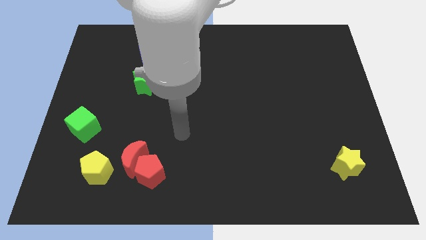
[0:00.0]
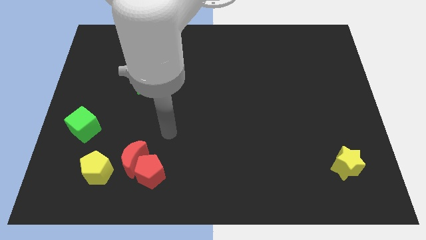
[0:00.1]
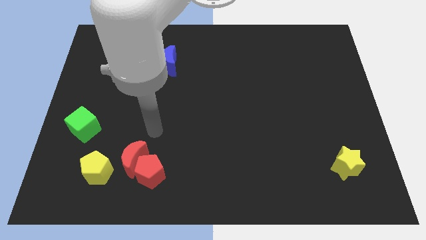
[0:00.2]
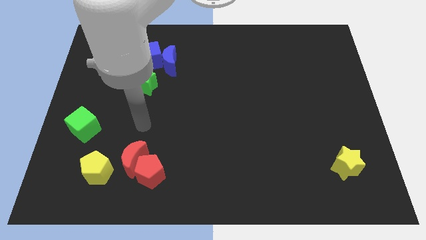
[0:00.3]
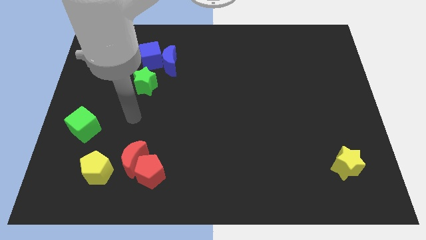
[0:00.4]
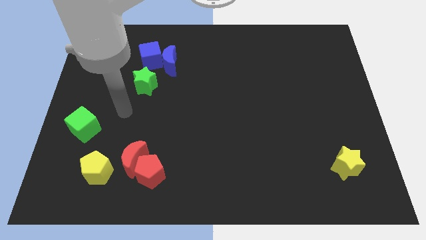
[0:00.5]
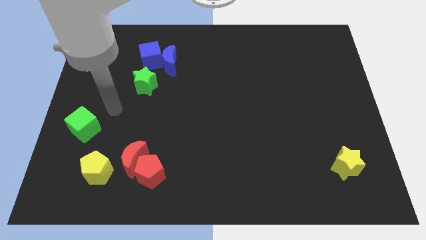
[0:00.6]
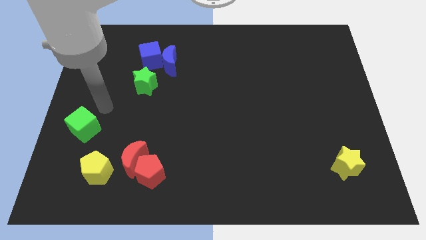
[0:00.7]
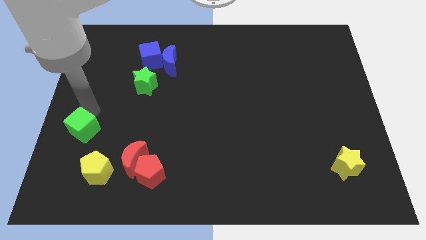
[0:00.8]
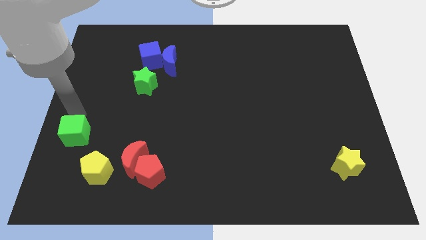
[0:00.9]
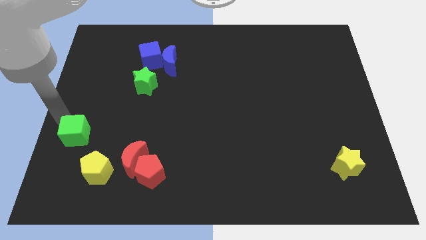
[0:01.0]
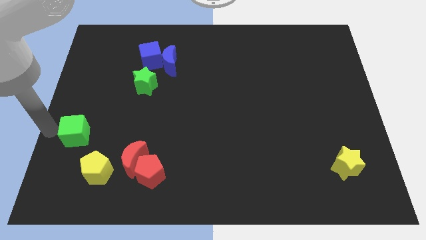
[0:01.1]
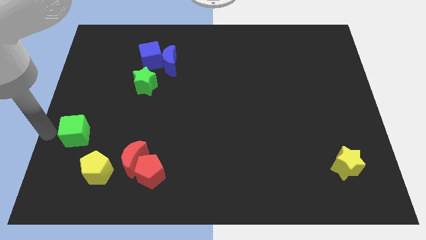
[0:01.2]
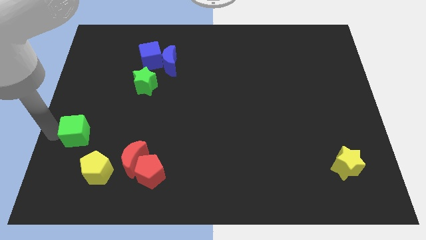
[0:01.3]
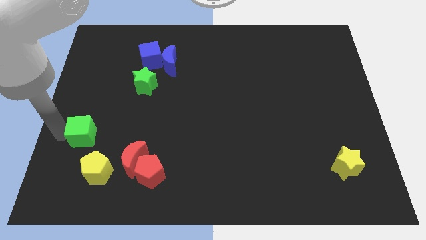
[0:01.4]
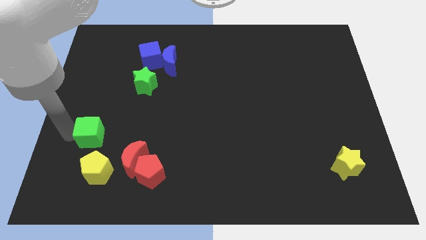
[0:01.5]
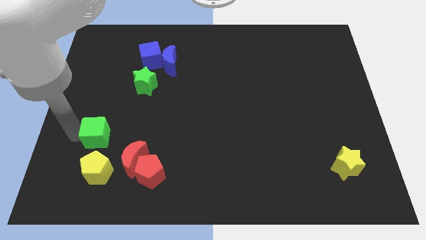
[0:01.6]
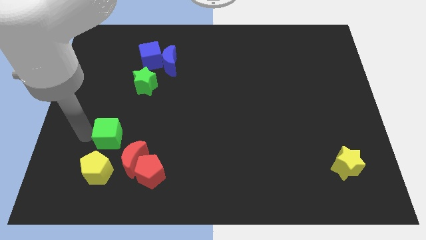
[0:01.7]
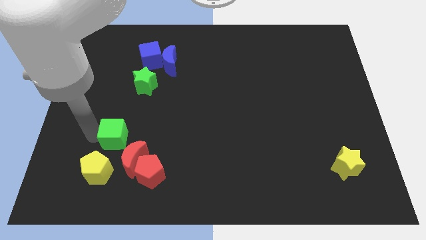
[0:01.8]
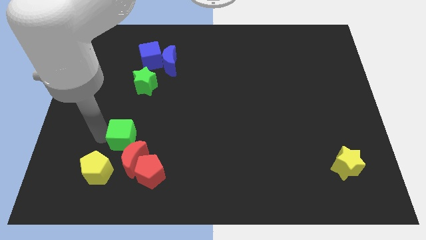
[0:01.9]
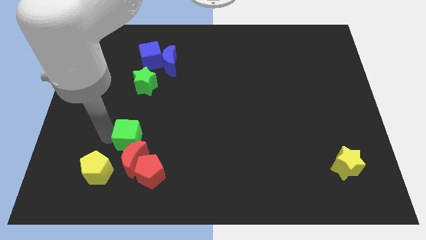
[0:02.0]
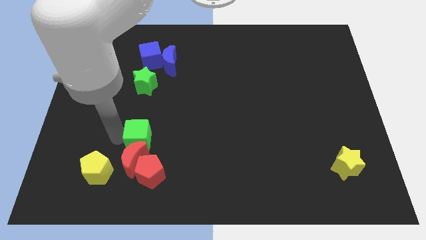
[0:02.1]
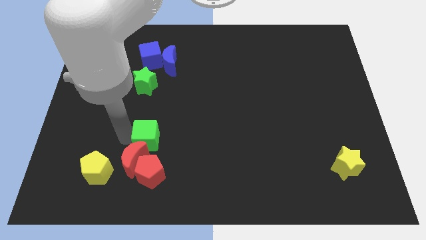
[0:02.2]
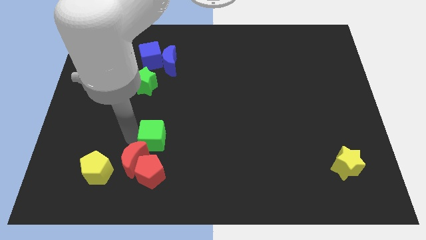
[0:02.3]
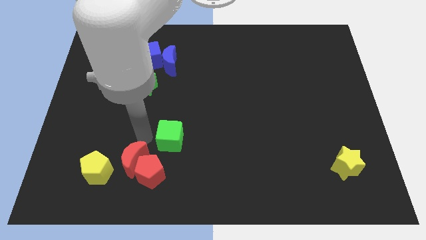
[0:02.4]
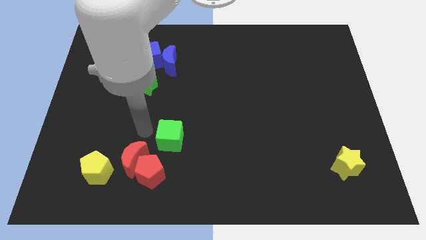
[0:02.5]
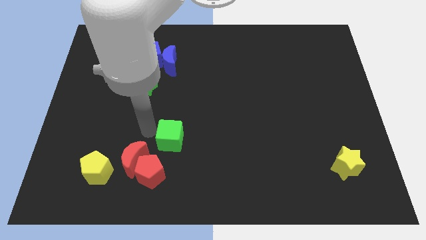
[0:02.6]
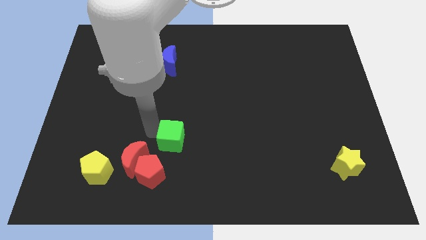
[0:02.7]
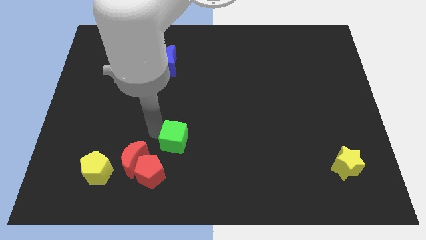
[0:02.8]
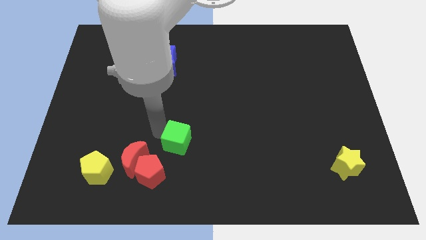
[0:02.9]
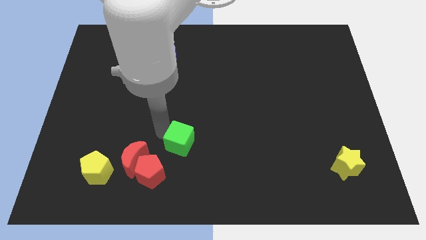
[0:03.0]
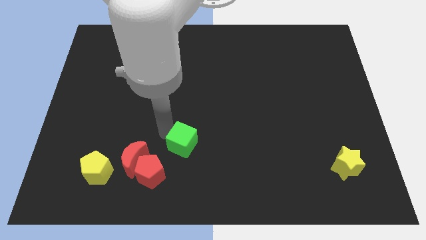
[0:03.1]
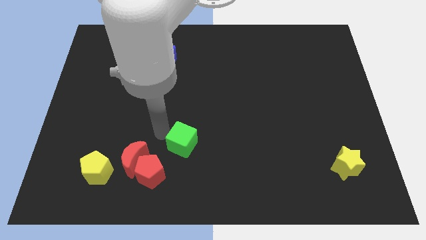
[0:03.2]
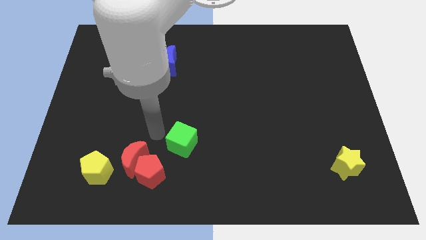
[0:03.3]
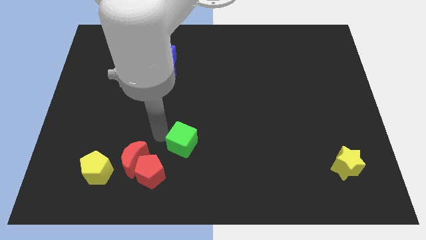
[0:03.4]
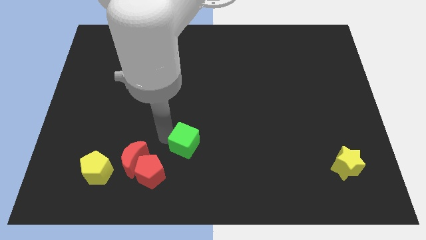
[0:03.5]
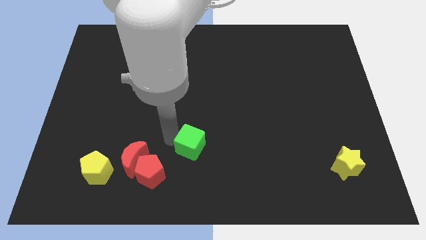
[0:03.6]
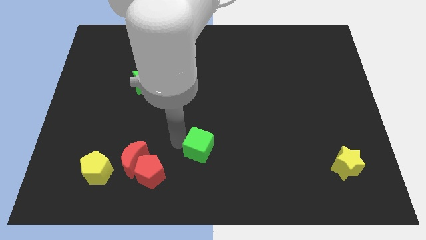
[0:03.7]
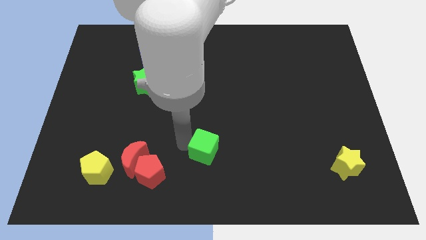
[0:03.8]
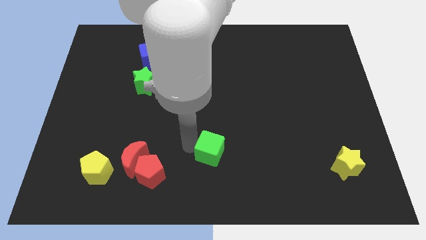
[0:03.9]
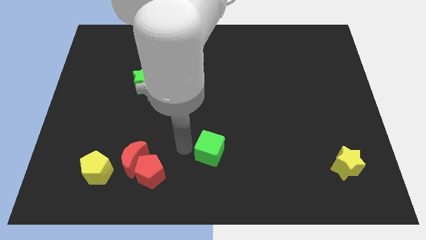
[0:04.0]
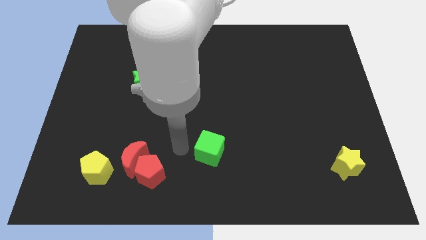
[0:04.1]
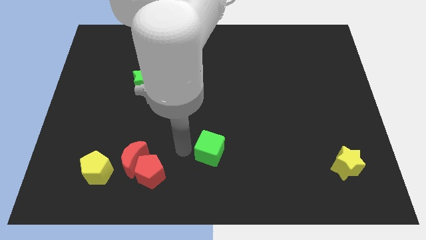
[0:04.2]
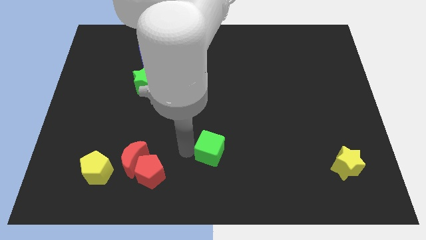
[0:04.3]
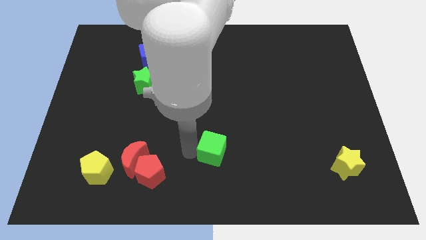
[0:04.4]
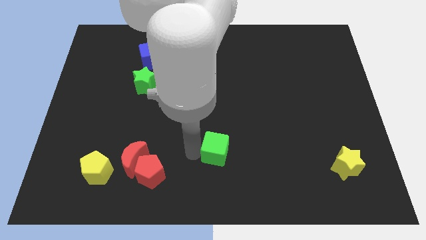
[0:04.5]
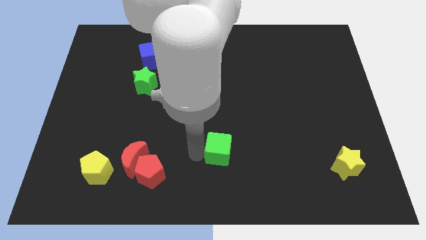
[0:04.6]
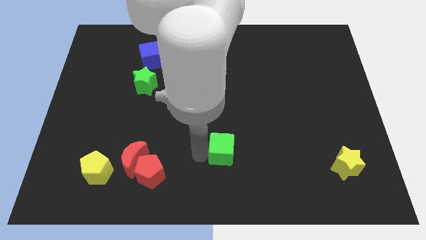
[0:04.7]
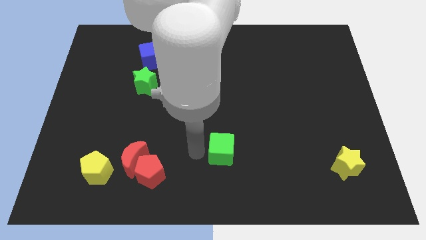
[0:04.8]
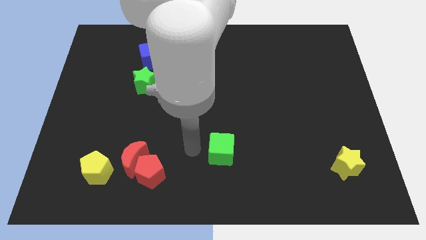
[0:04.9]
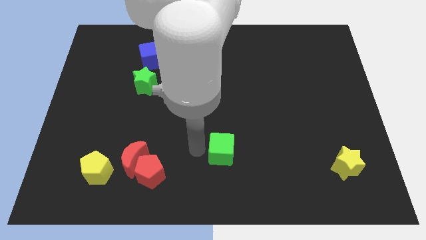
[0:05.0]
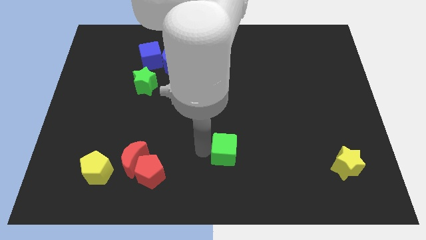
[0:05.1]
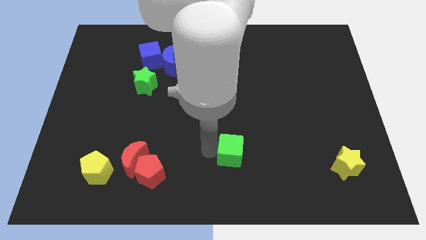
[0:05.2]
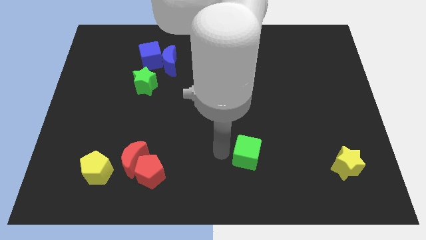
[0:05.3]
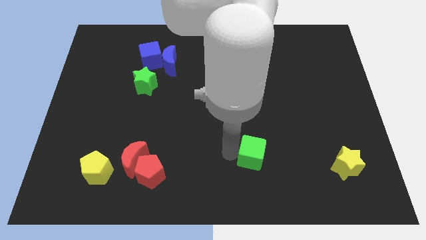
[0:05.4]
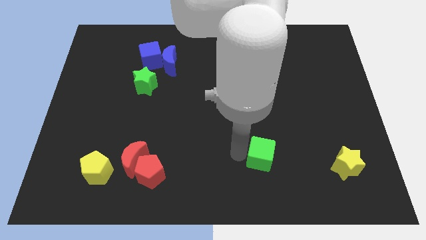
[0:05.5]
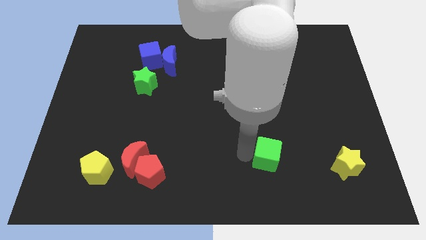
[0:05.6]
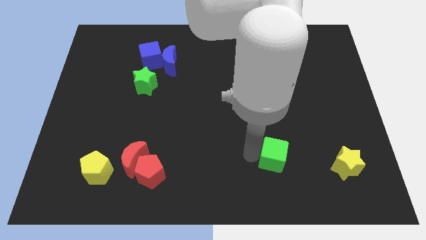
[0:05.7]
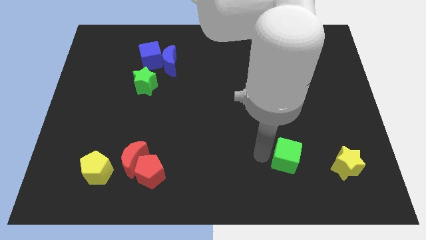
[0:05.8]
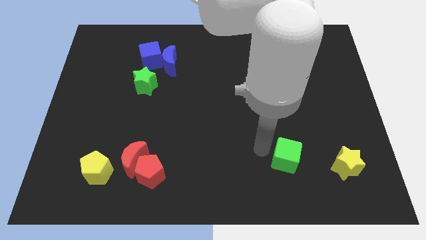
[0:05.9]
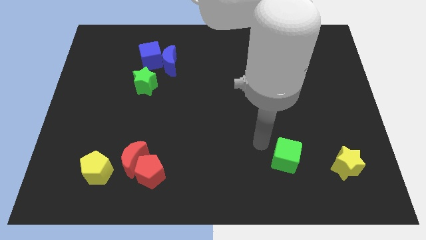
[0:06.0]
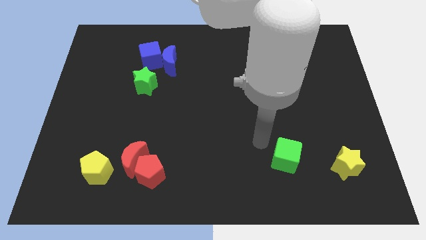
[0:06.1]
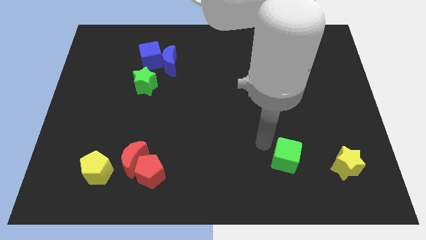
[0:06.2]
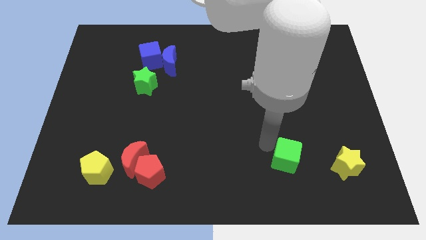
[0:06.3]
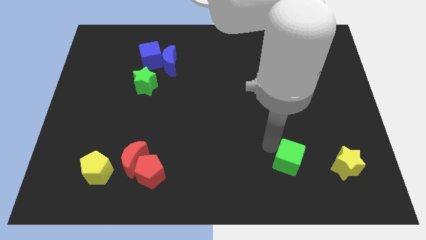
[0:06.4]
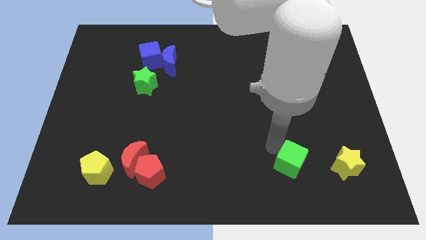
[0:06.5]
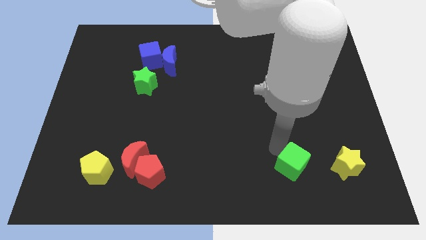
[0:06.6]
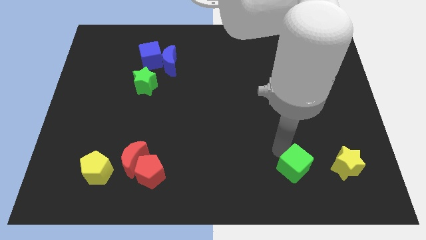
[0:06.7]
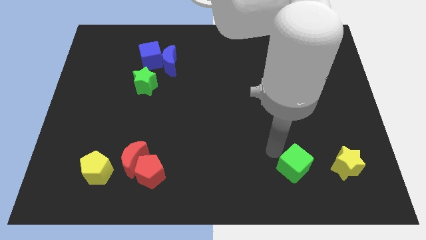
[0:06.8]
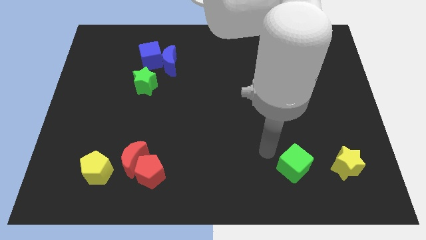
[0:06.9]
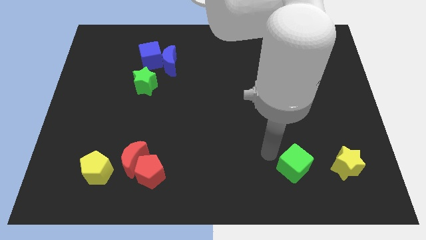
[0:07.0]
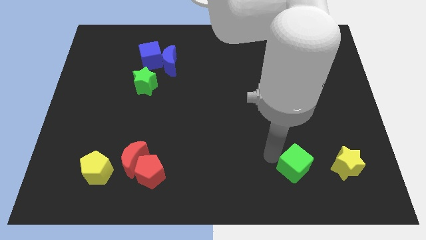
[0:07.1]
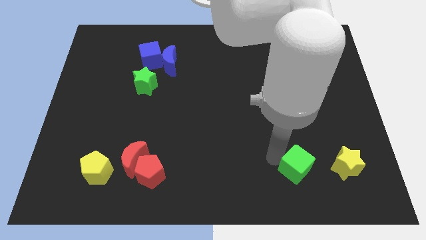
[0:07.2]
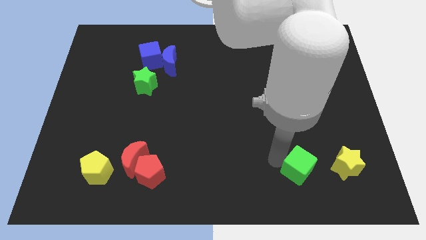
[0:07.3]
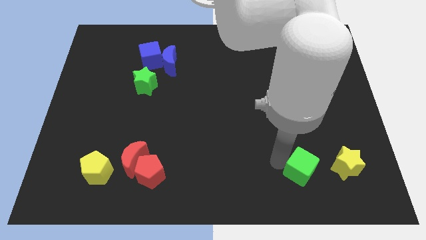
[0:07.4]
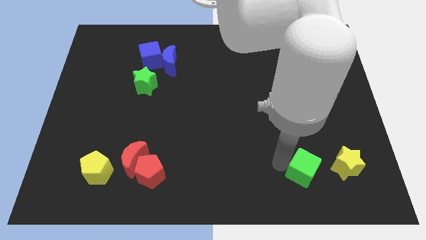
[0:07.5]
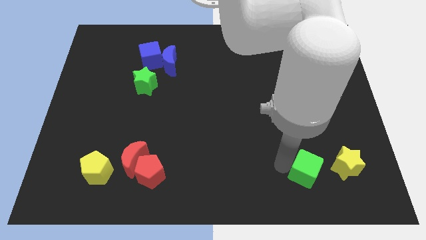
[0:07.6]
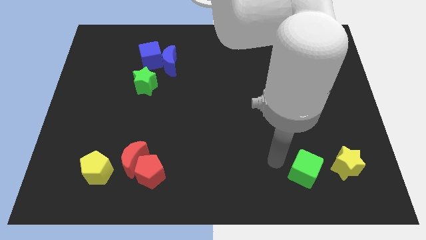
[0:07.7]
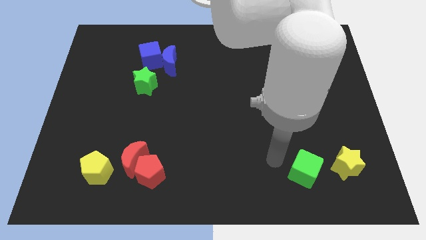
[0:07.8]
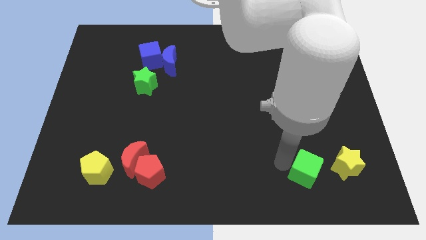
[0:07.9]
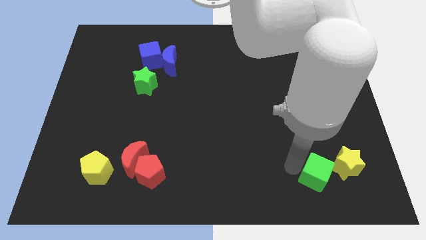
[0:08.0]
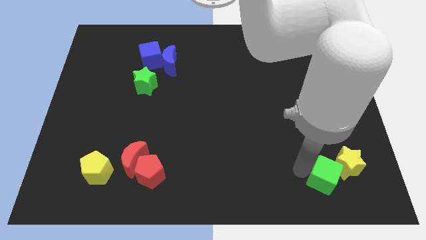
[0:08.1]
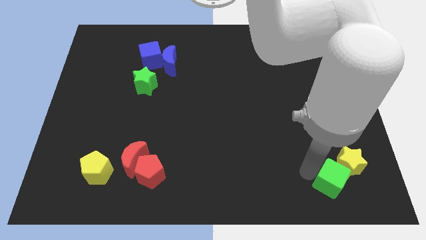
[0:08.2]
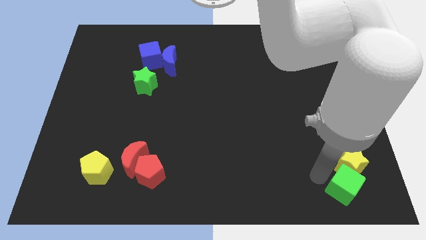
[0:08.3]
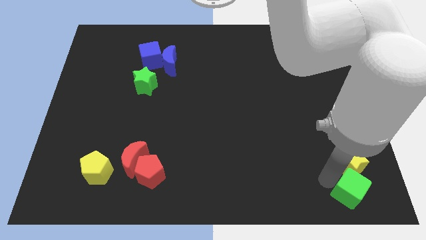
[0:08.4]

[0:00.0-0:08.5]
move the green cube to the bottom right
